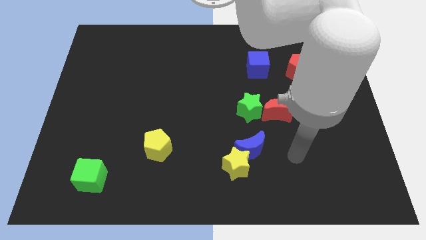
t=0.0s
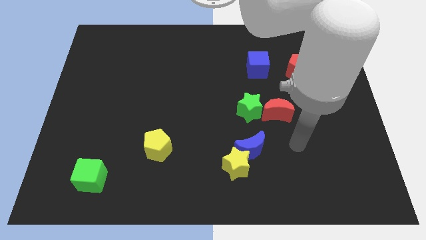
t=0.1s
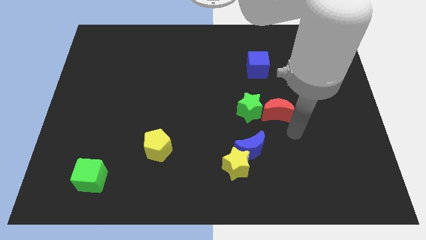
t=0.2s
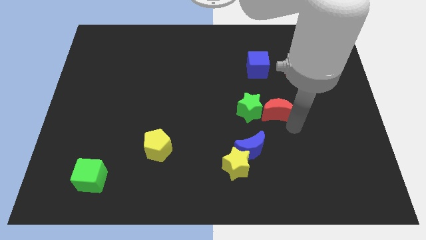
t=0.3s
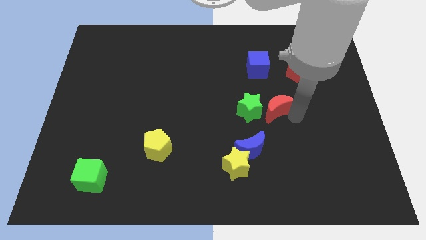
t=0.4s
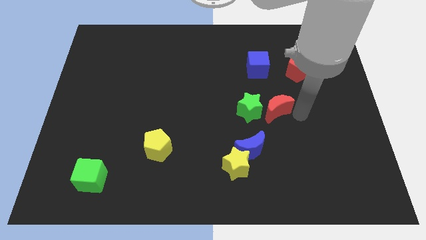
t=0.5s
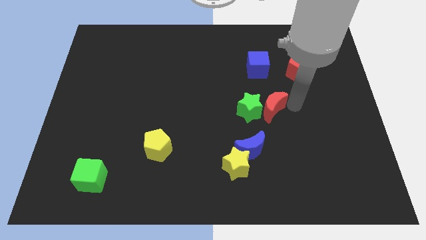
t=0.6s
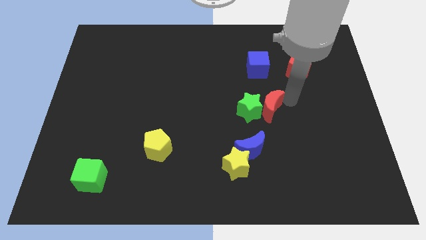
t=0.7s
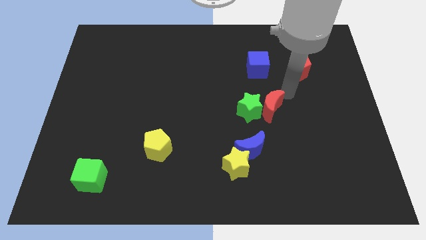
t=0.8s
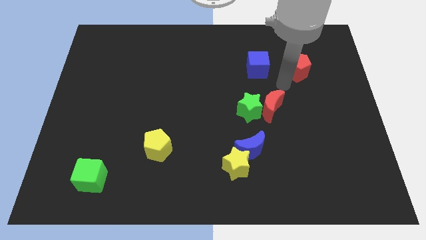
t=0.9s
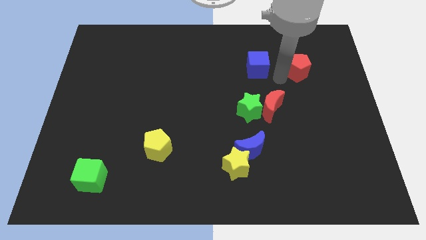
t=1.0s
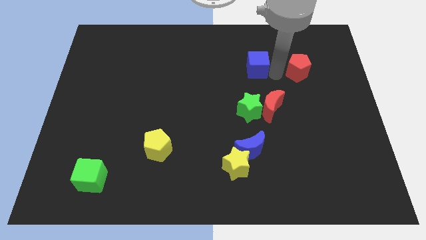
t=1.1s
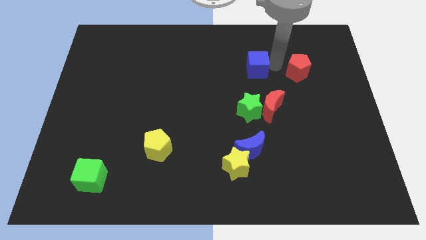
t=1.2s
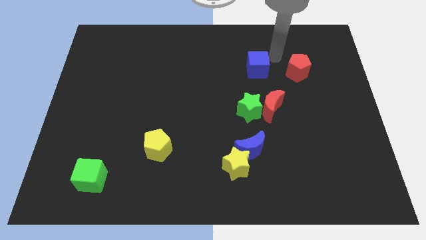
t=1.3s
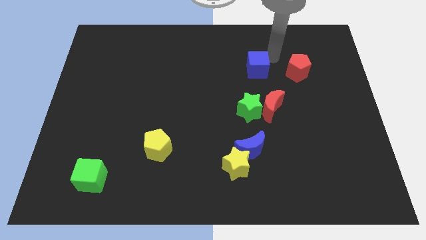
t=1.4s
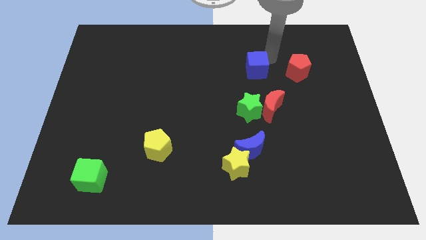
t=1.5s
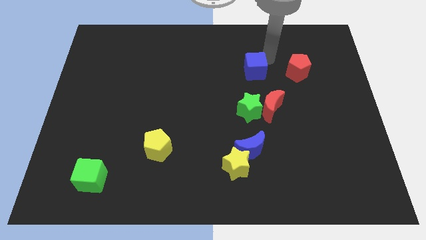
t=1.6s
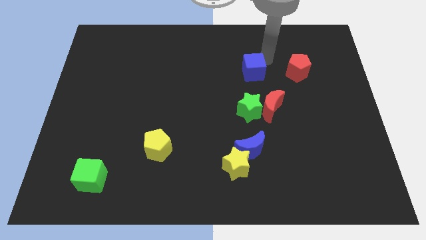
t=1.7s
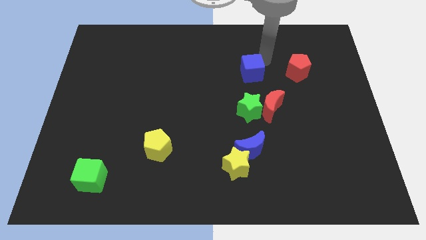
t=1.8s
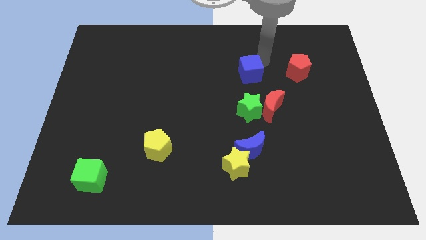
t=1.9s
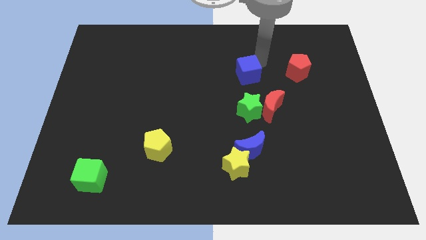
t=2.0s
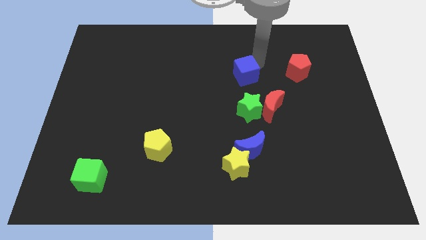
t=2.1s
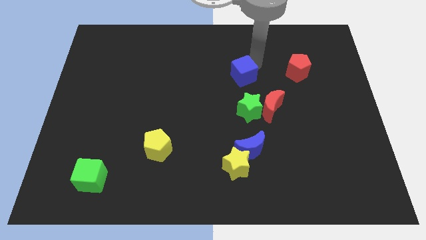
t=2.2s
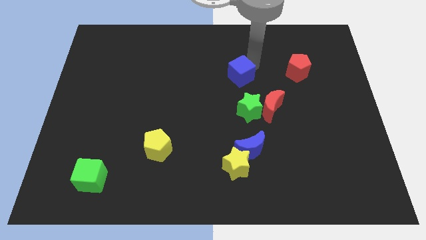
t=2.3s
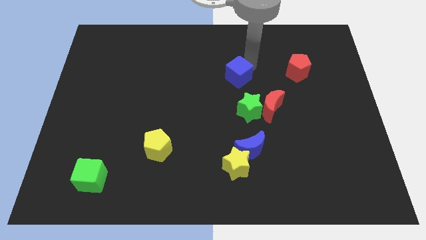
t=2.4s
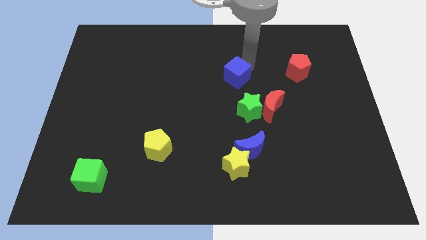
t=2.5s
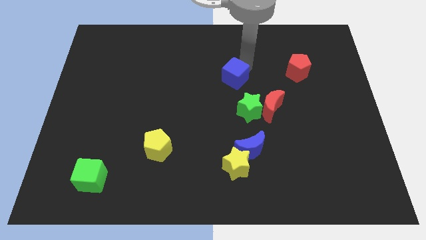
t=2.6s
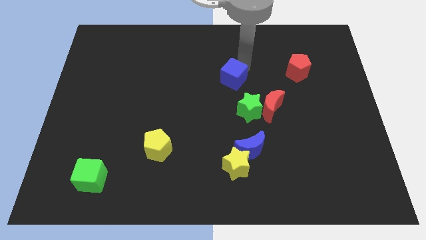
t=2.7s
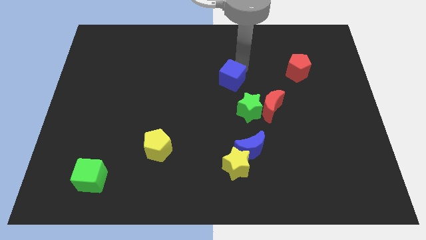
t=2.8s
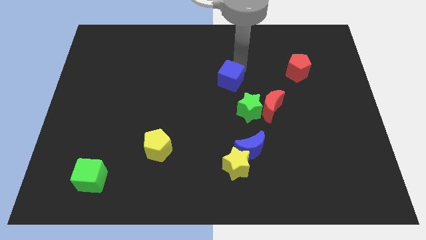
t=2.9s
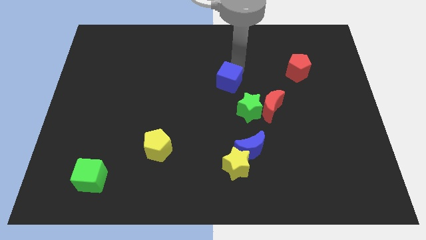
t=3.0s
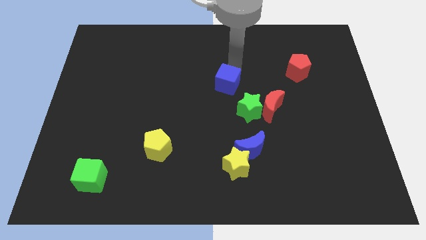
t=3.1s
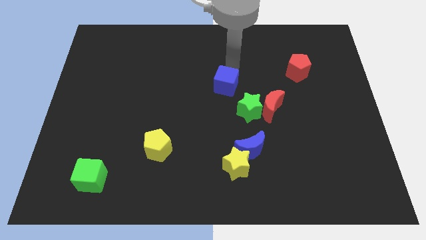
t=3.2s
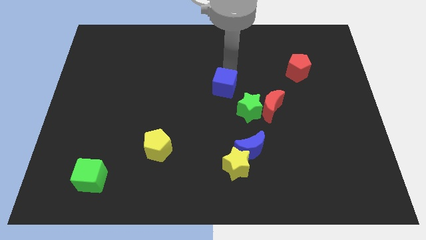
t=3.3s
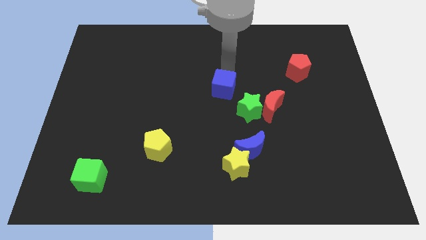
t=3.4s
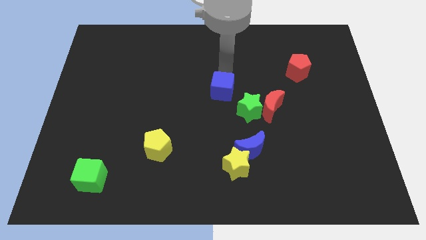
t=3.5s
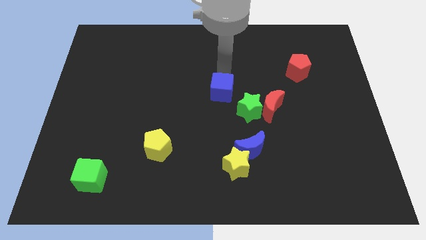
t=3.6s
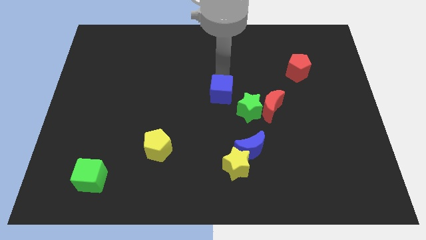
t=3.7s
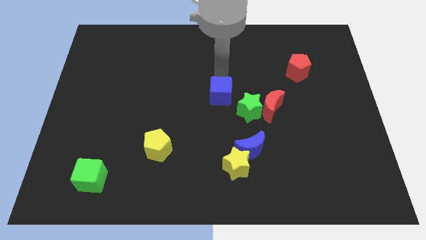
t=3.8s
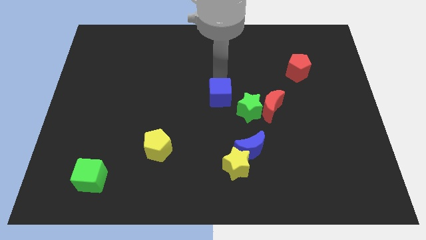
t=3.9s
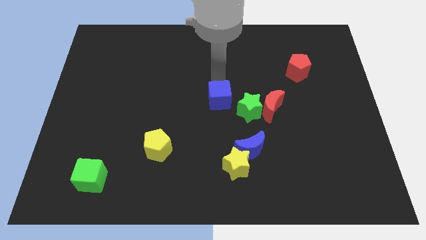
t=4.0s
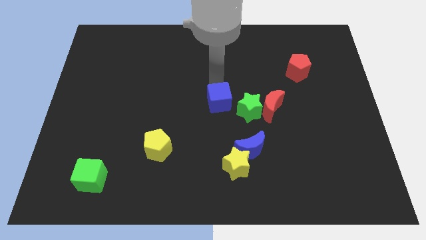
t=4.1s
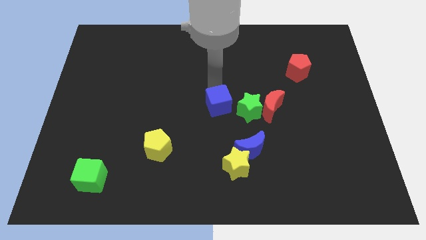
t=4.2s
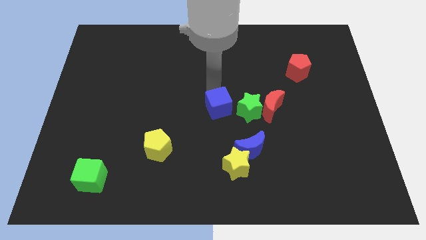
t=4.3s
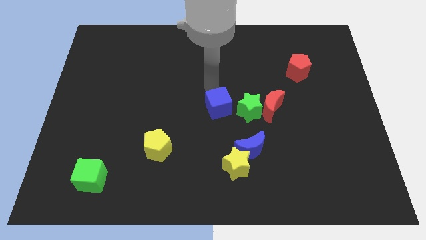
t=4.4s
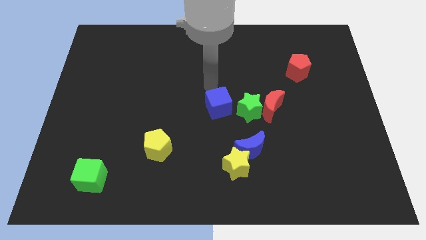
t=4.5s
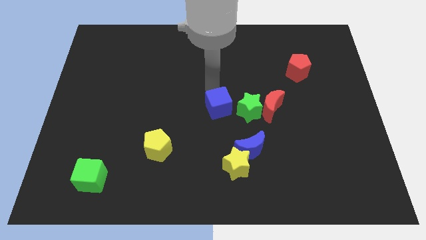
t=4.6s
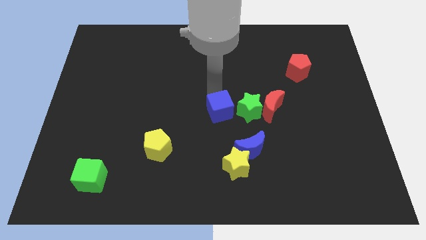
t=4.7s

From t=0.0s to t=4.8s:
push the blue cube to the bottom left of the green star

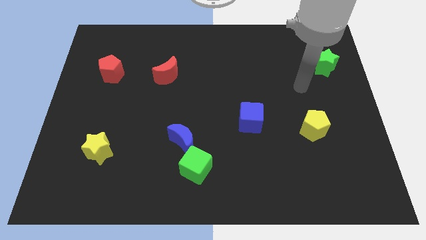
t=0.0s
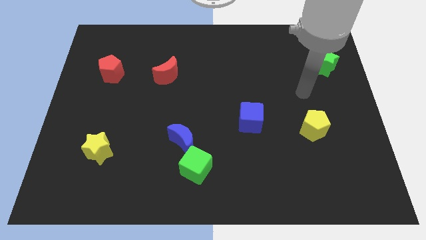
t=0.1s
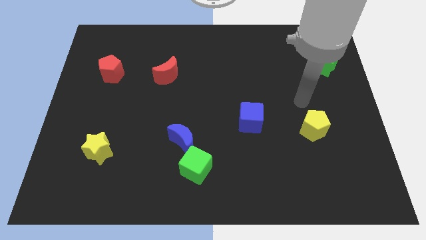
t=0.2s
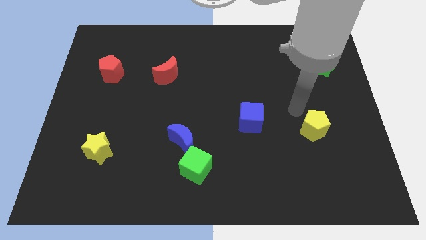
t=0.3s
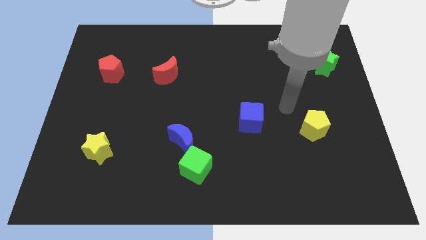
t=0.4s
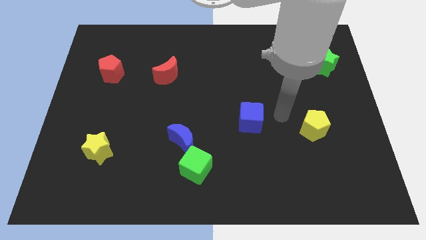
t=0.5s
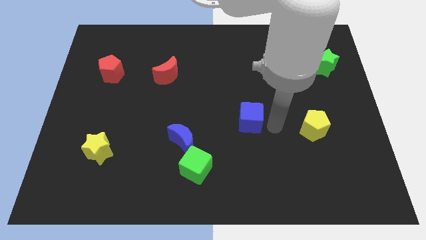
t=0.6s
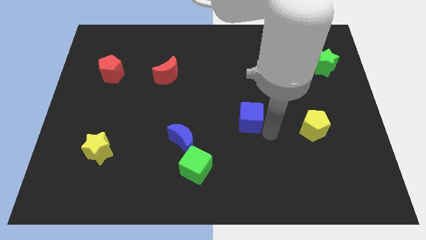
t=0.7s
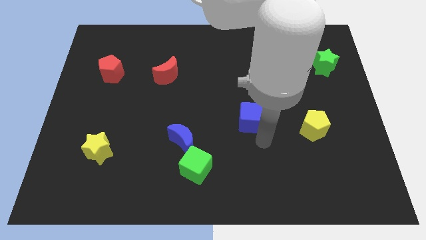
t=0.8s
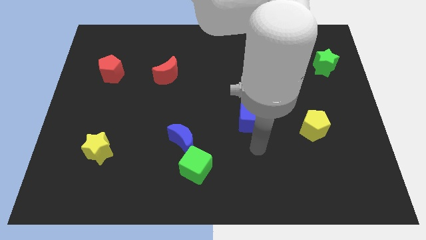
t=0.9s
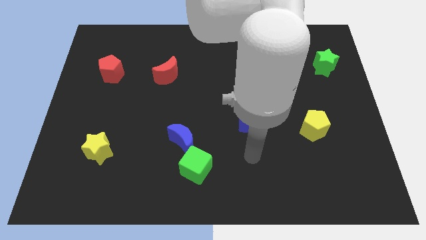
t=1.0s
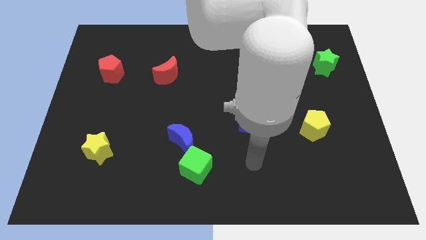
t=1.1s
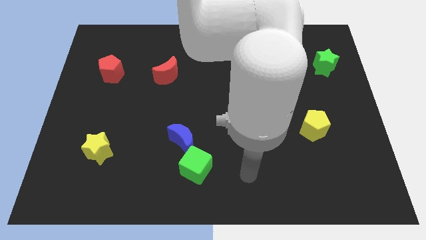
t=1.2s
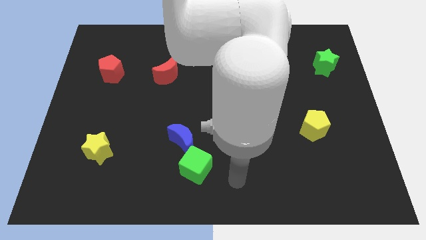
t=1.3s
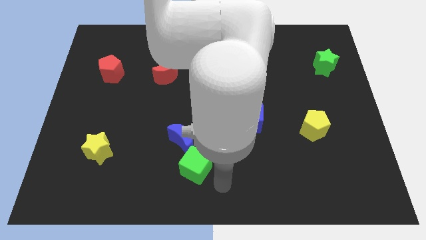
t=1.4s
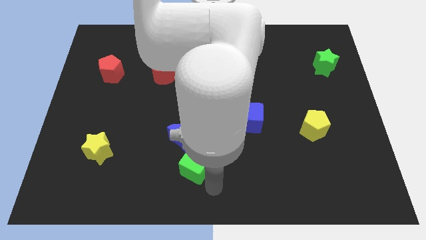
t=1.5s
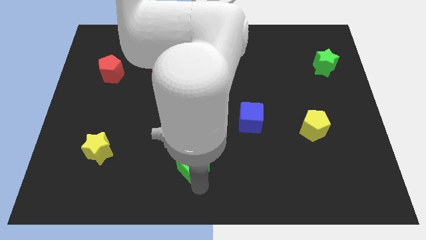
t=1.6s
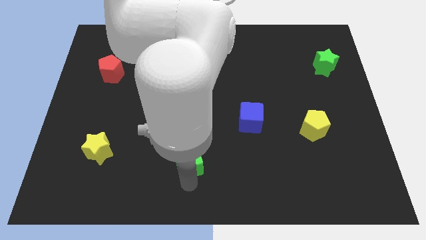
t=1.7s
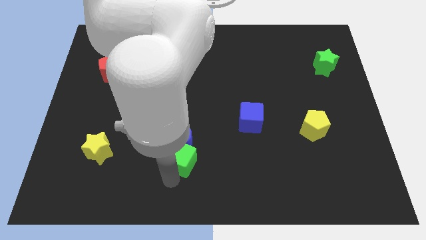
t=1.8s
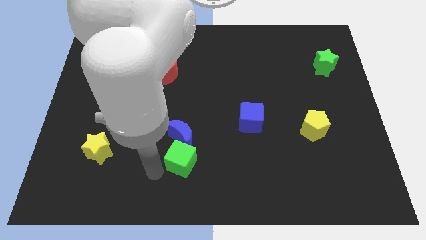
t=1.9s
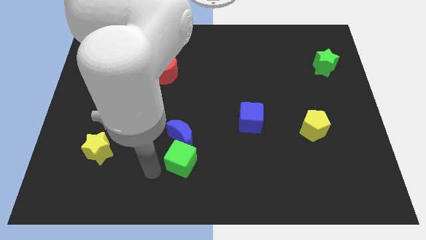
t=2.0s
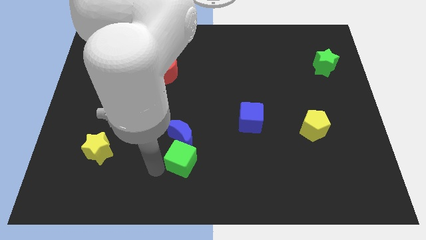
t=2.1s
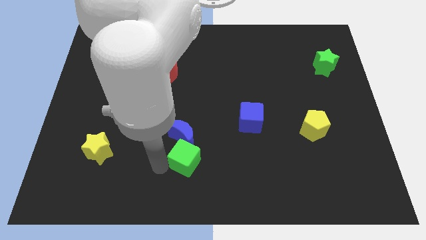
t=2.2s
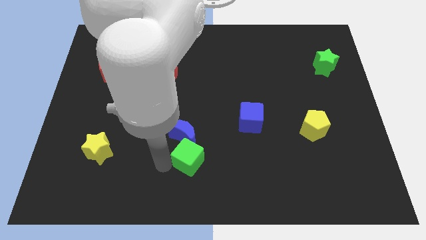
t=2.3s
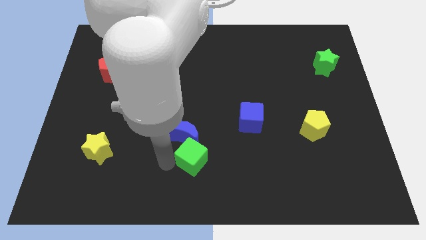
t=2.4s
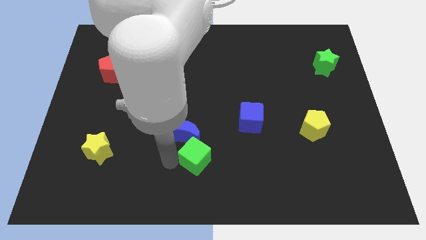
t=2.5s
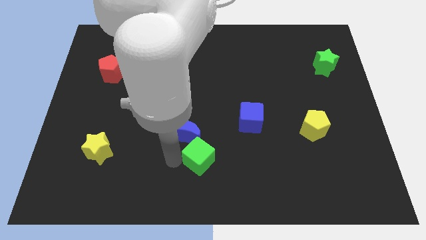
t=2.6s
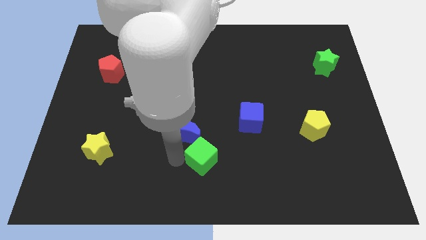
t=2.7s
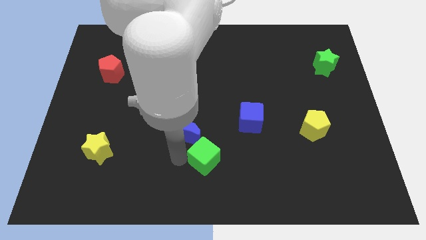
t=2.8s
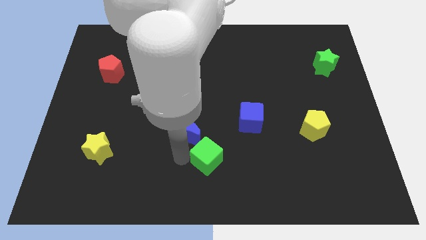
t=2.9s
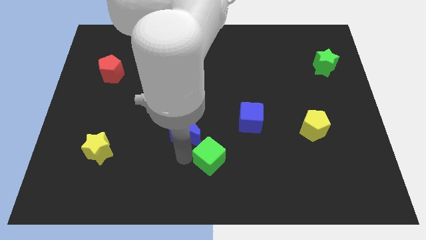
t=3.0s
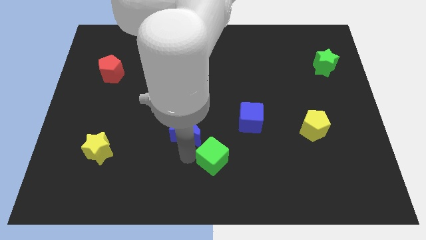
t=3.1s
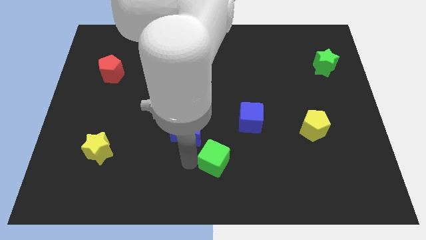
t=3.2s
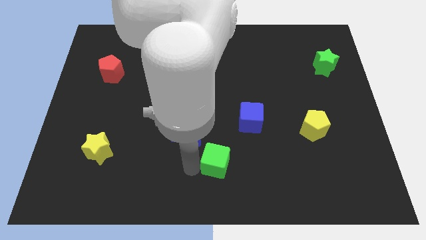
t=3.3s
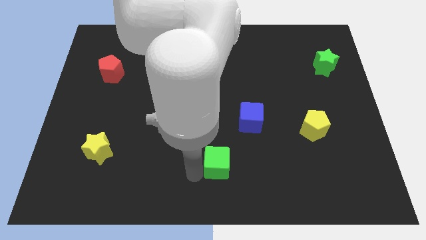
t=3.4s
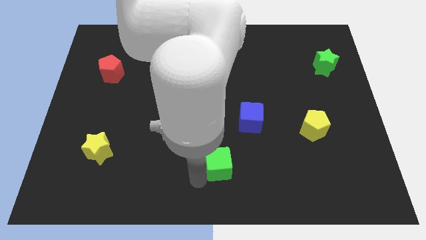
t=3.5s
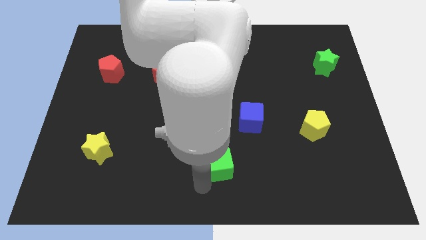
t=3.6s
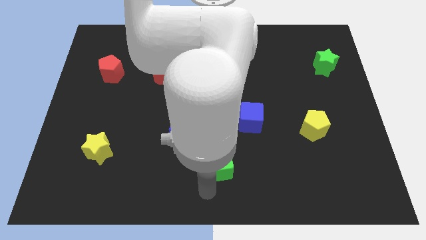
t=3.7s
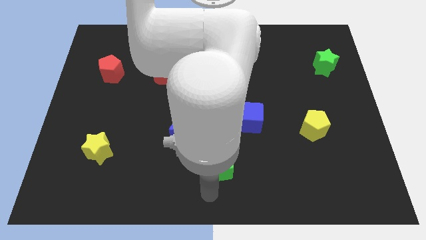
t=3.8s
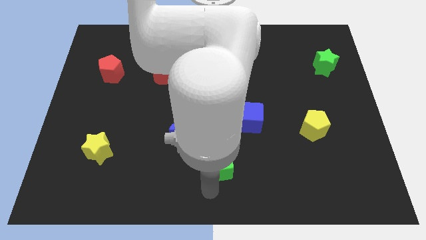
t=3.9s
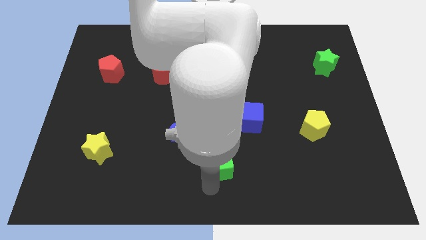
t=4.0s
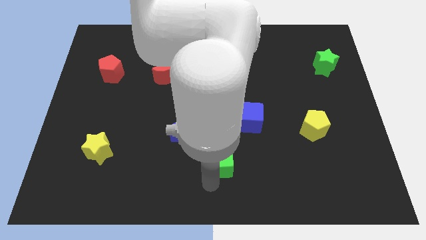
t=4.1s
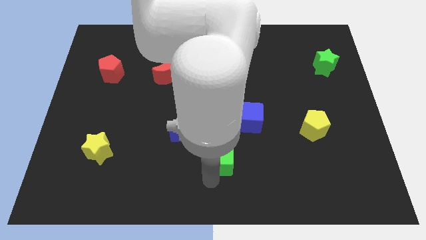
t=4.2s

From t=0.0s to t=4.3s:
move the green cube to the bottom left of the blue cube
